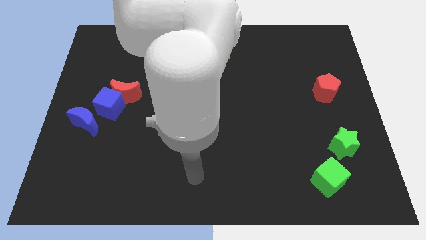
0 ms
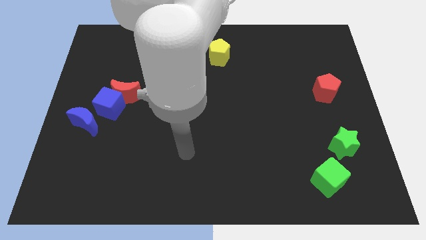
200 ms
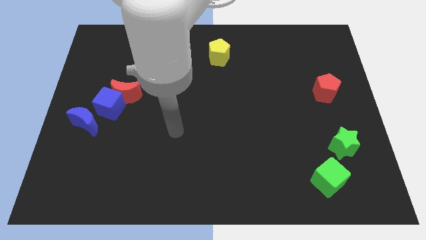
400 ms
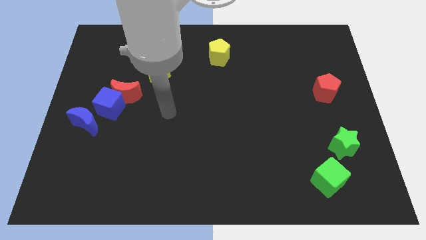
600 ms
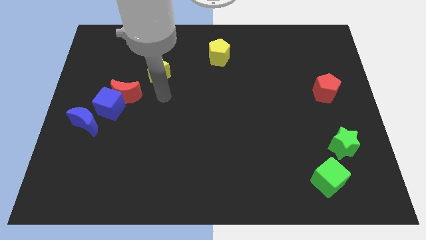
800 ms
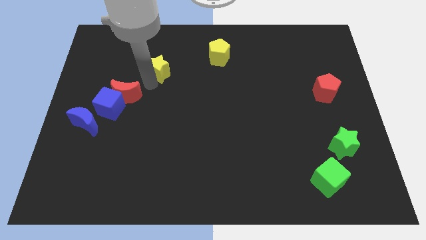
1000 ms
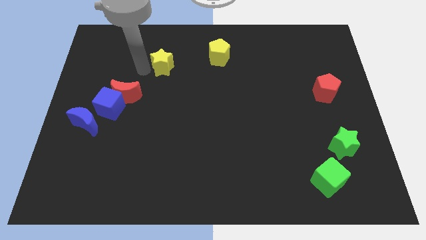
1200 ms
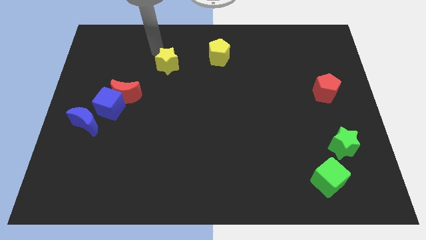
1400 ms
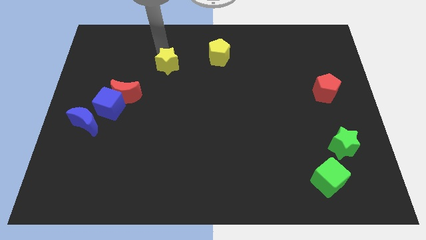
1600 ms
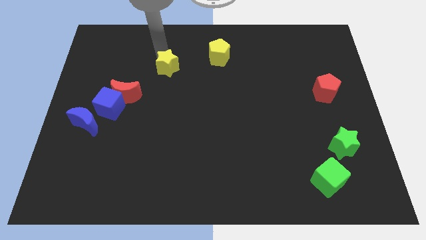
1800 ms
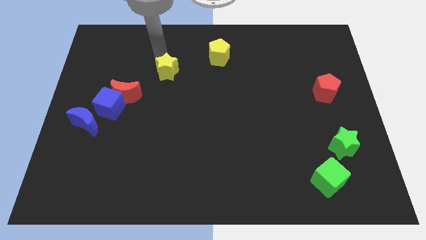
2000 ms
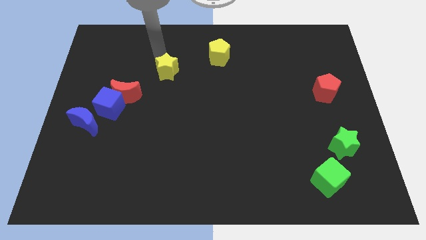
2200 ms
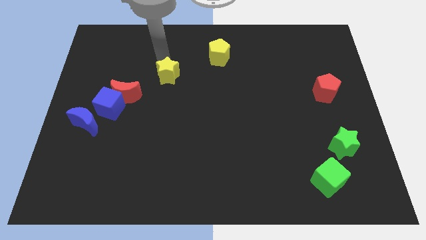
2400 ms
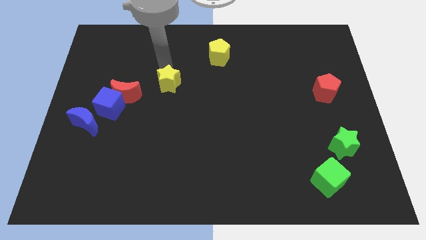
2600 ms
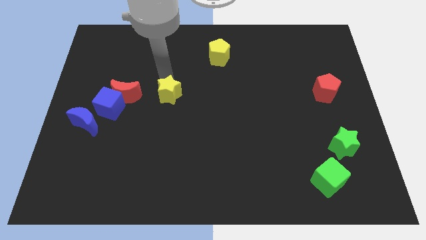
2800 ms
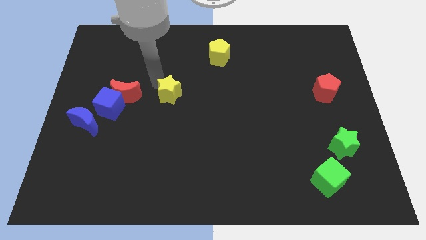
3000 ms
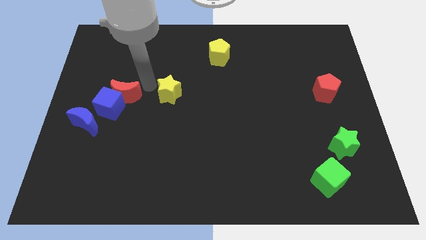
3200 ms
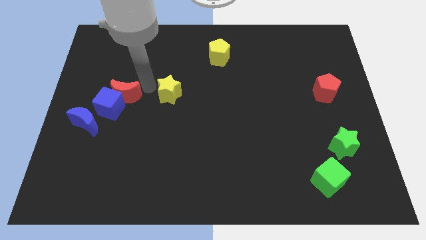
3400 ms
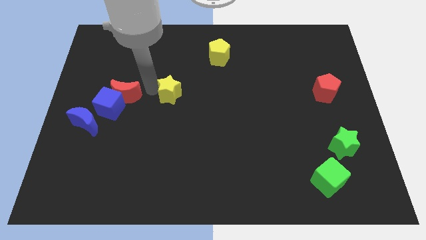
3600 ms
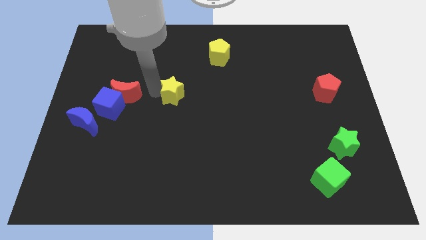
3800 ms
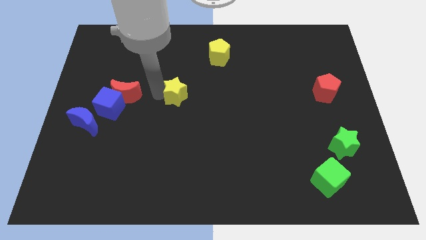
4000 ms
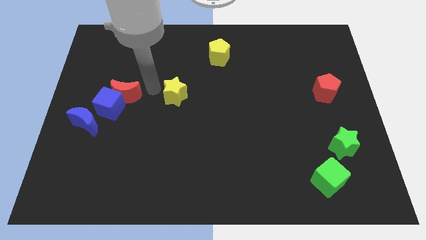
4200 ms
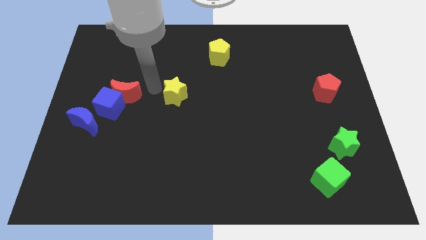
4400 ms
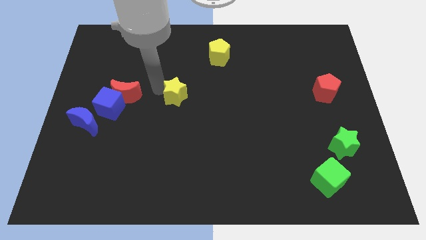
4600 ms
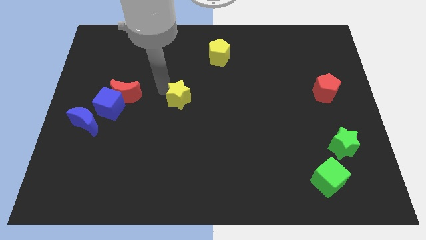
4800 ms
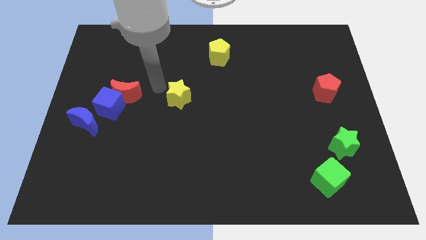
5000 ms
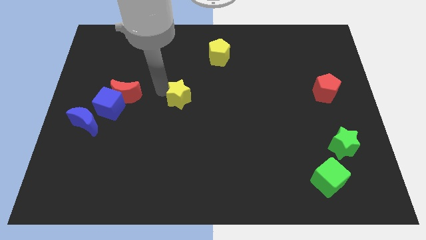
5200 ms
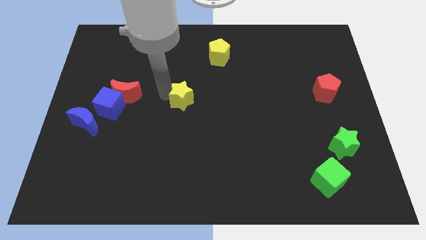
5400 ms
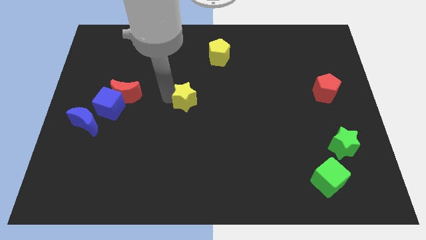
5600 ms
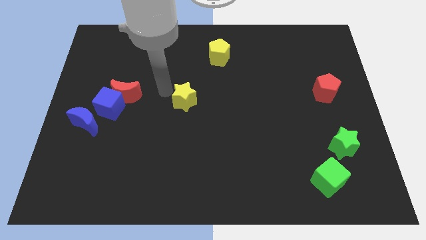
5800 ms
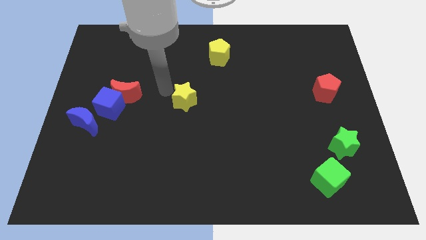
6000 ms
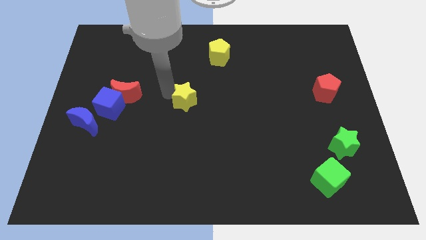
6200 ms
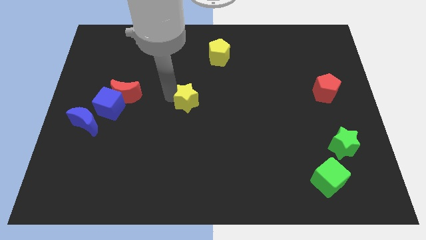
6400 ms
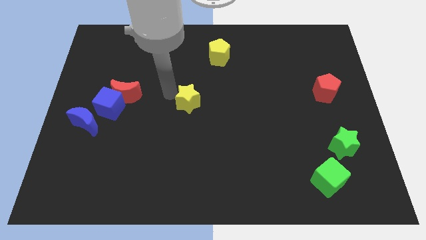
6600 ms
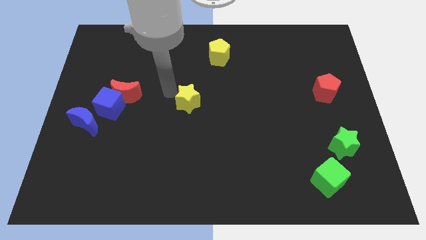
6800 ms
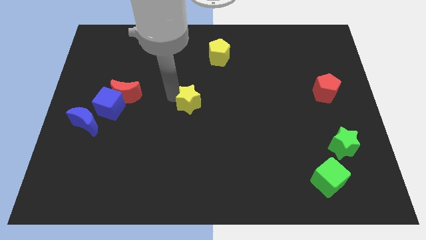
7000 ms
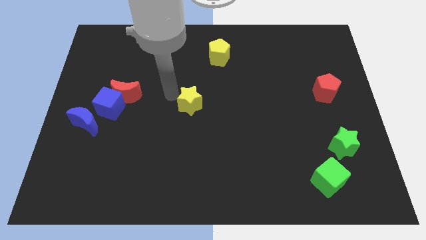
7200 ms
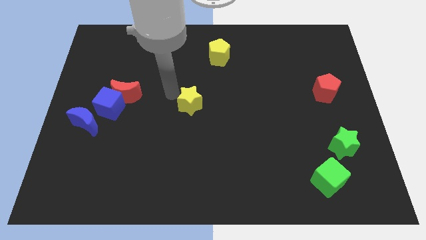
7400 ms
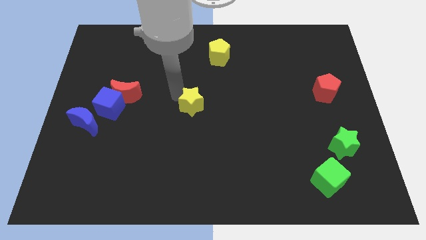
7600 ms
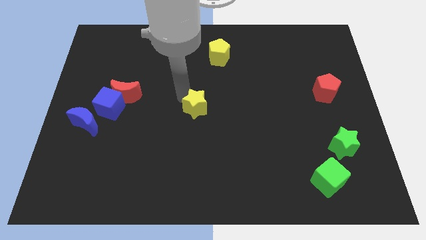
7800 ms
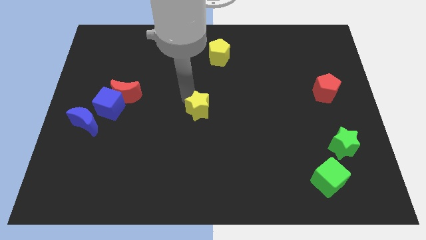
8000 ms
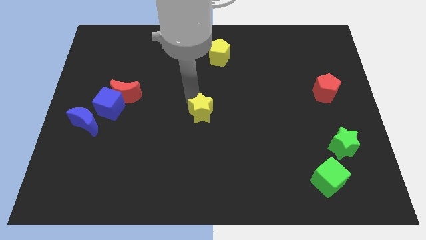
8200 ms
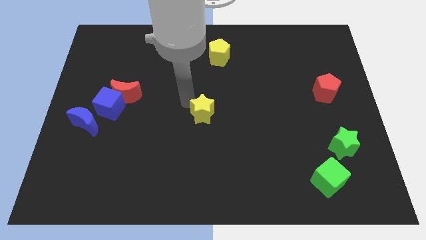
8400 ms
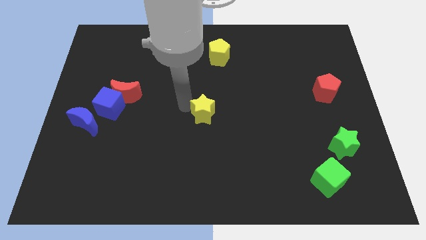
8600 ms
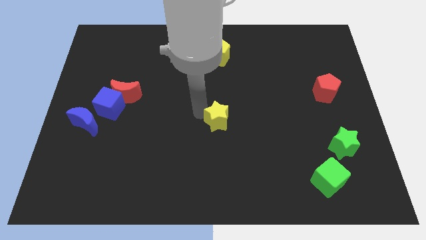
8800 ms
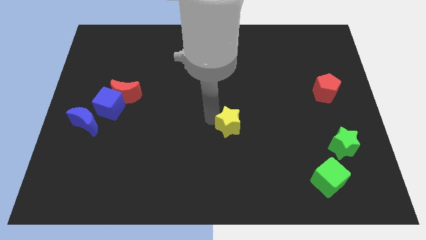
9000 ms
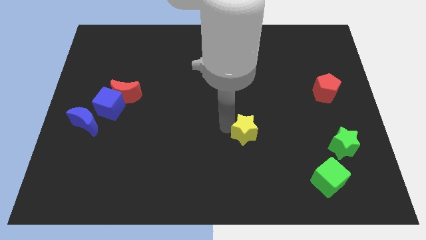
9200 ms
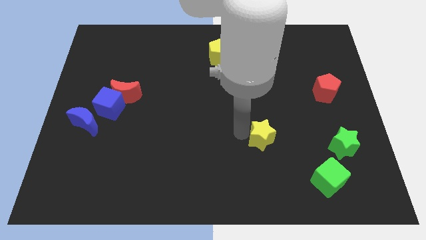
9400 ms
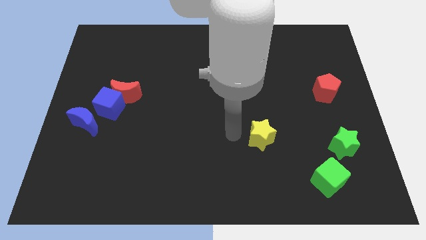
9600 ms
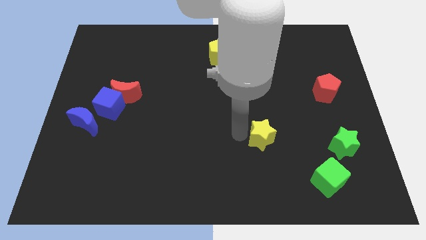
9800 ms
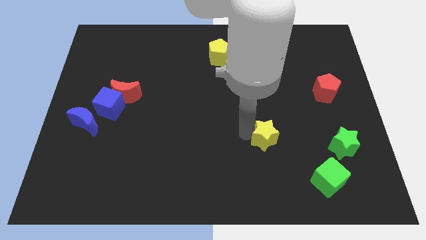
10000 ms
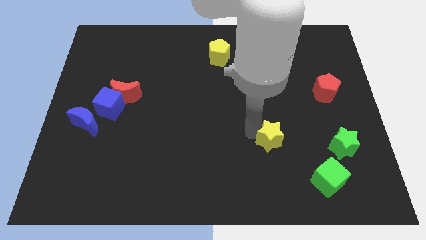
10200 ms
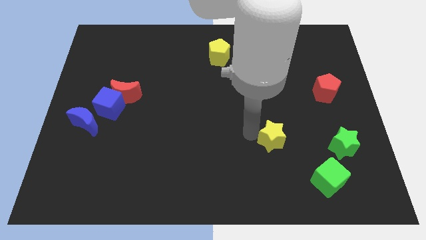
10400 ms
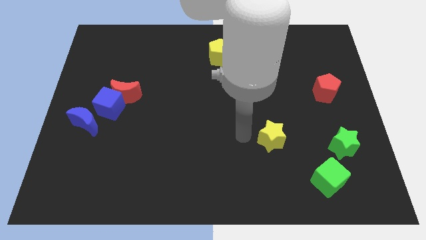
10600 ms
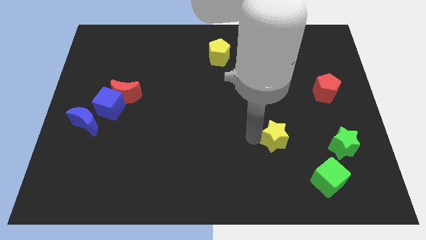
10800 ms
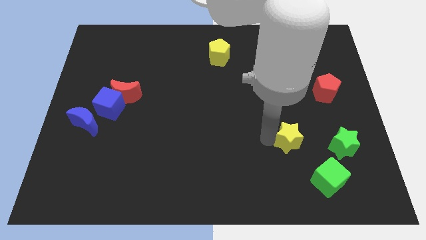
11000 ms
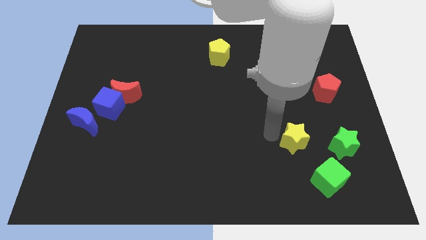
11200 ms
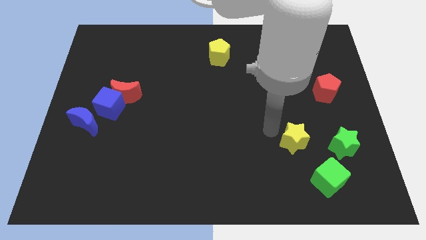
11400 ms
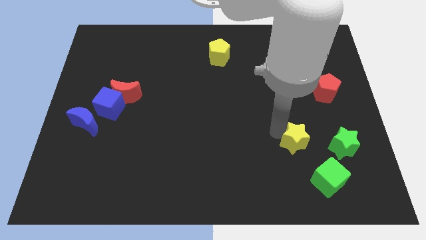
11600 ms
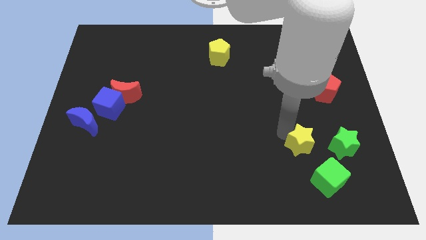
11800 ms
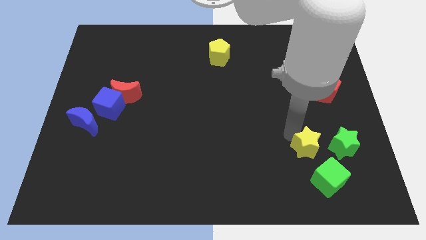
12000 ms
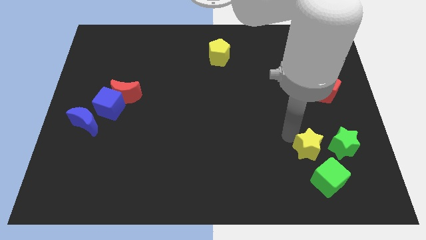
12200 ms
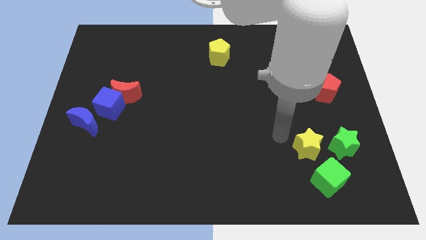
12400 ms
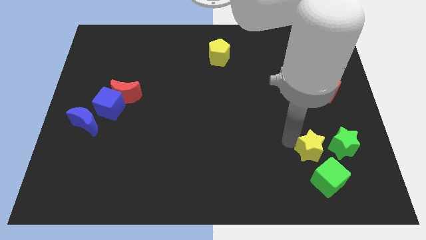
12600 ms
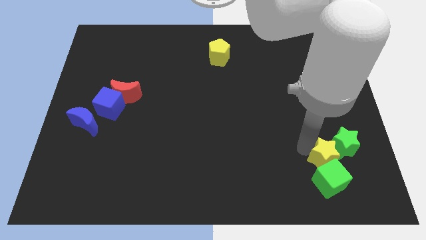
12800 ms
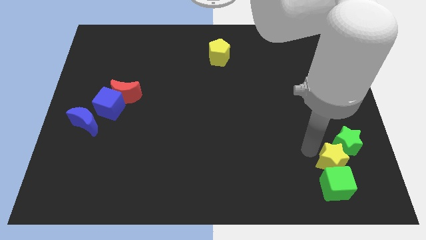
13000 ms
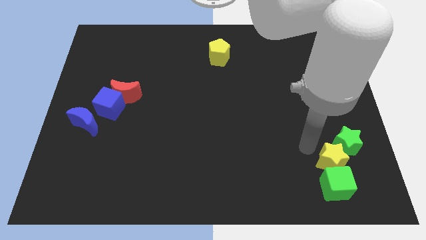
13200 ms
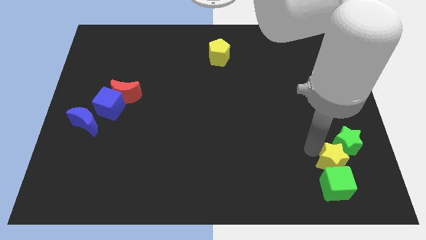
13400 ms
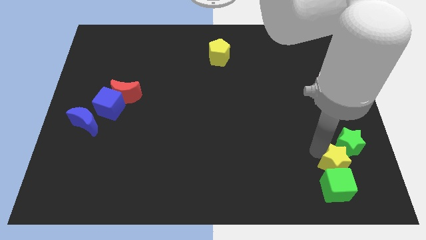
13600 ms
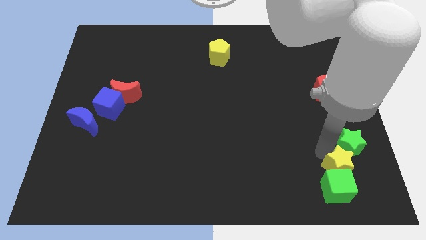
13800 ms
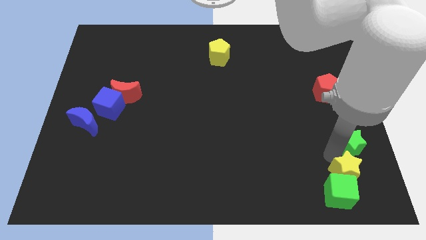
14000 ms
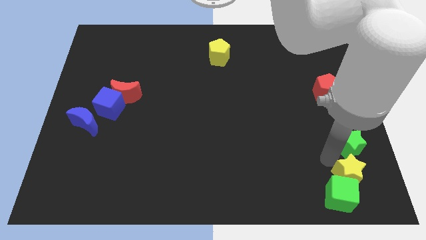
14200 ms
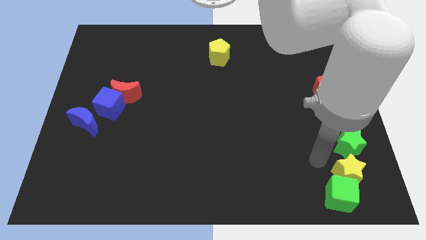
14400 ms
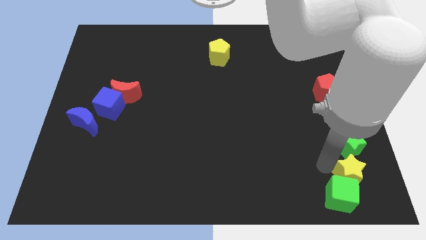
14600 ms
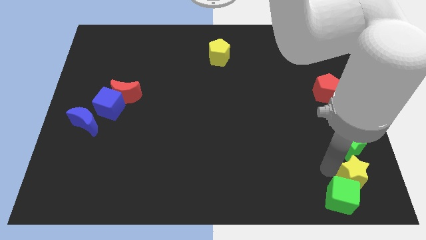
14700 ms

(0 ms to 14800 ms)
push the yellow star to the bottom right of the board
